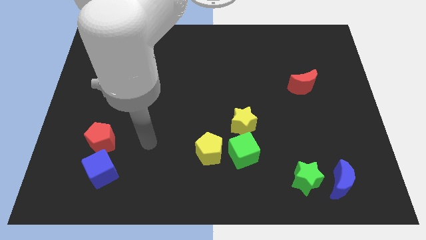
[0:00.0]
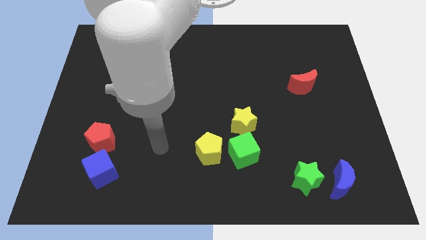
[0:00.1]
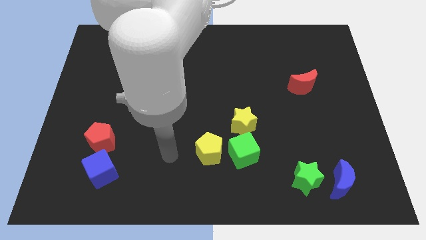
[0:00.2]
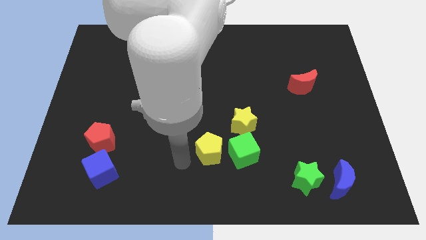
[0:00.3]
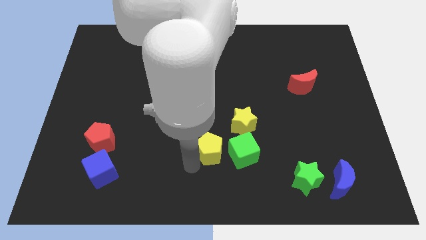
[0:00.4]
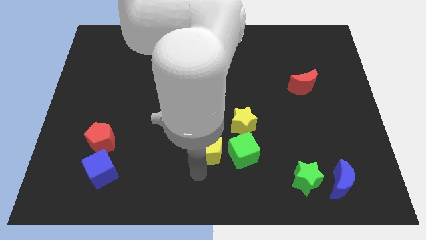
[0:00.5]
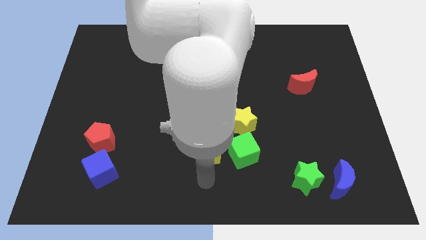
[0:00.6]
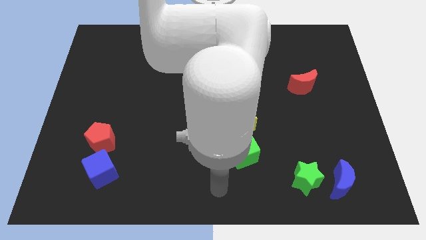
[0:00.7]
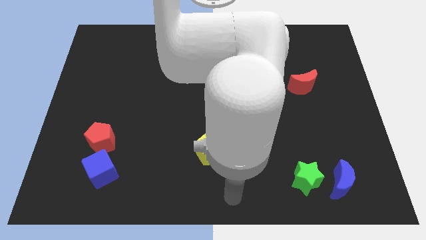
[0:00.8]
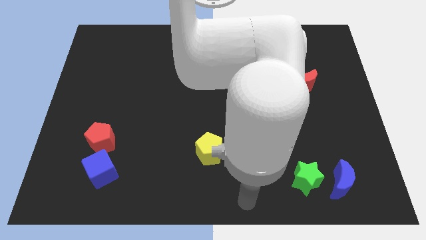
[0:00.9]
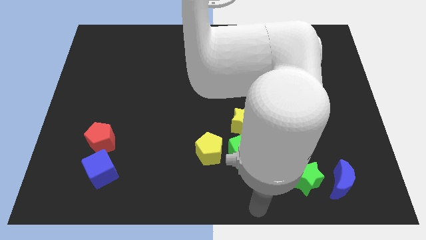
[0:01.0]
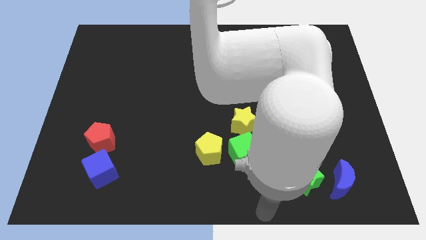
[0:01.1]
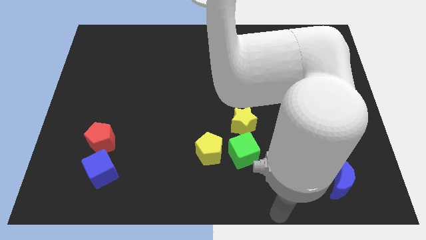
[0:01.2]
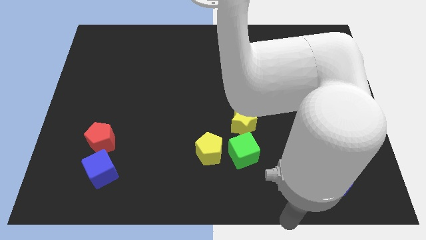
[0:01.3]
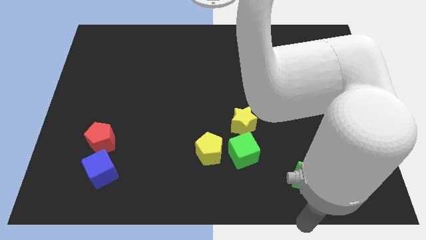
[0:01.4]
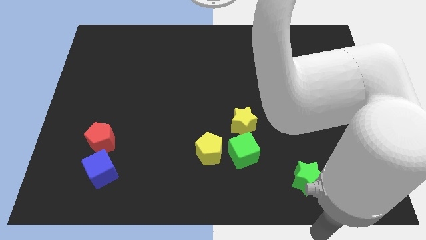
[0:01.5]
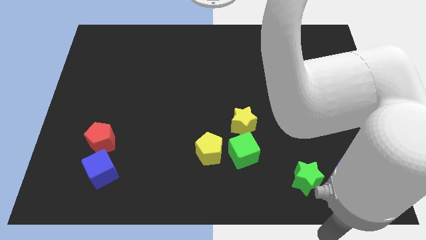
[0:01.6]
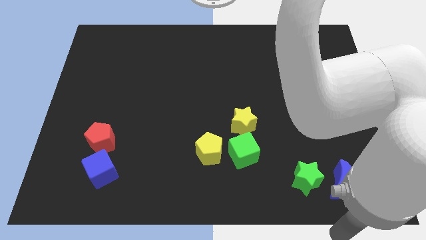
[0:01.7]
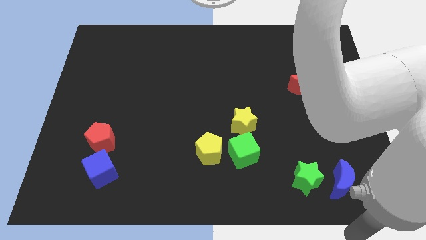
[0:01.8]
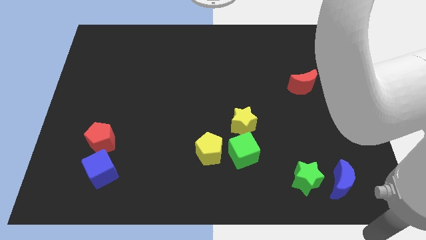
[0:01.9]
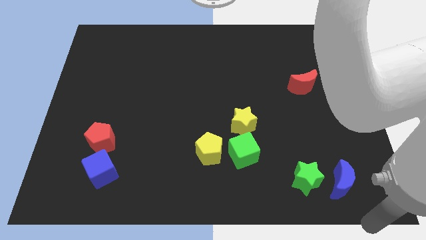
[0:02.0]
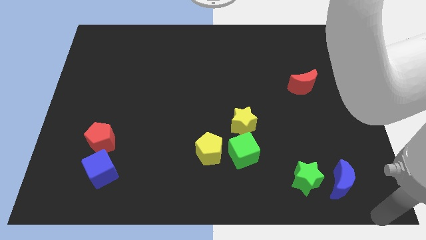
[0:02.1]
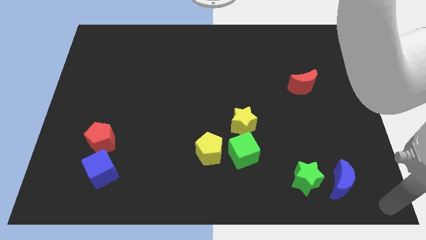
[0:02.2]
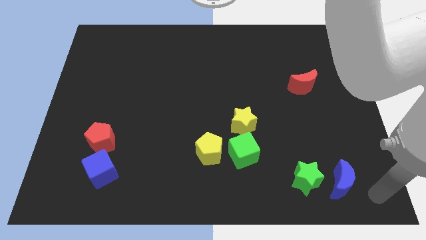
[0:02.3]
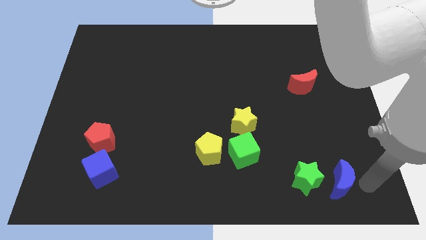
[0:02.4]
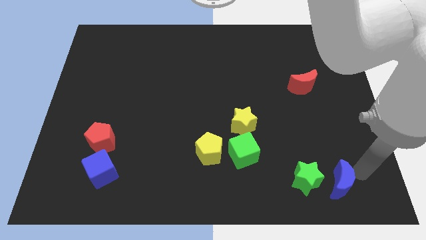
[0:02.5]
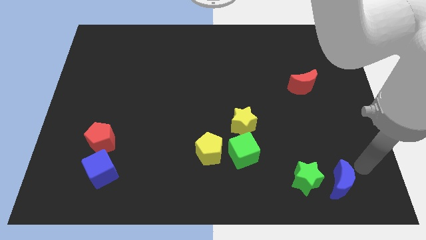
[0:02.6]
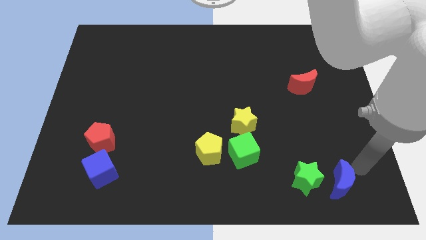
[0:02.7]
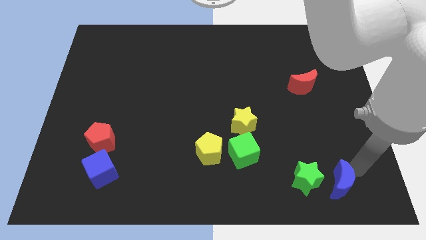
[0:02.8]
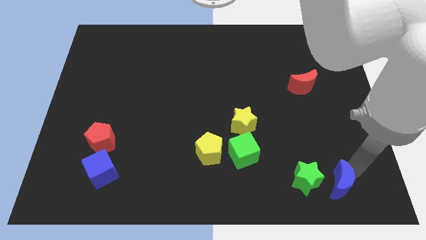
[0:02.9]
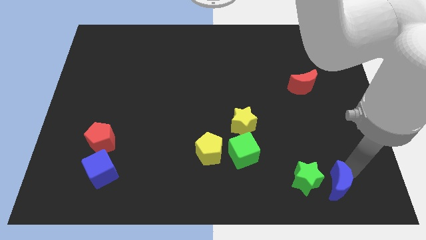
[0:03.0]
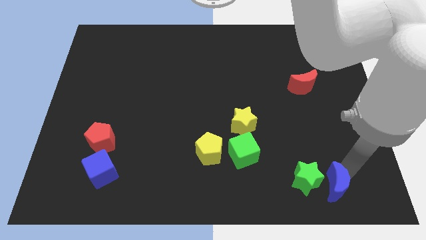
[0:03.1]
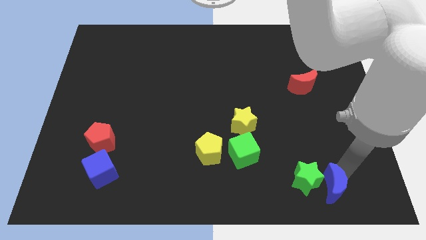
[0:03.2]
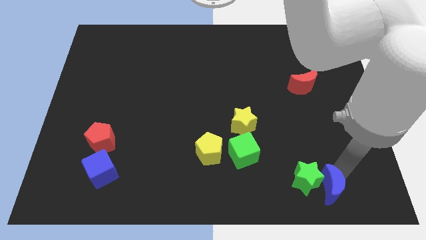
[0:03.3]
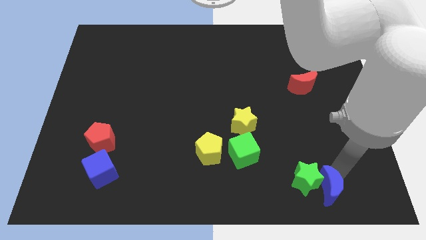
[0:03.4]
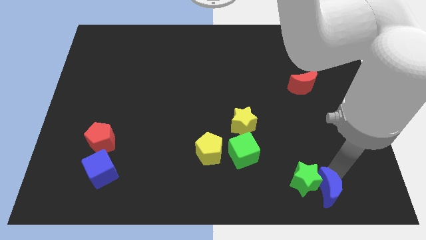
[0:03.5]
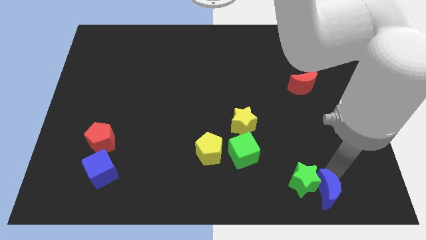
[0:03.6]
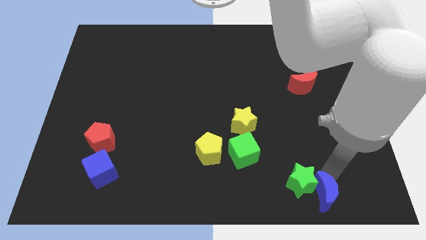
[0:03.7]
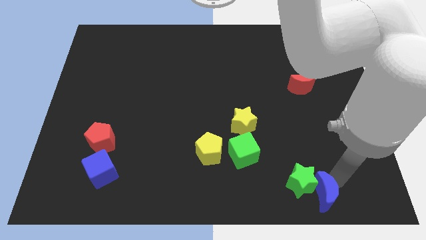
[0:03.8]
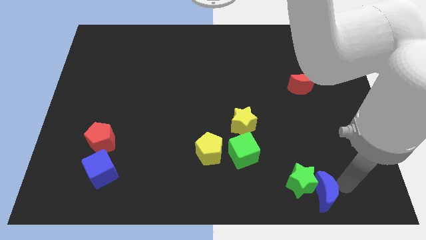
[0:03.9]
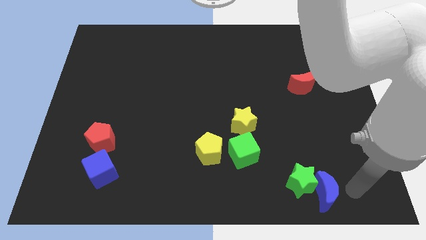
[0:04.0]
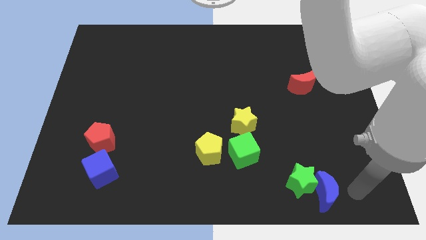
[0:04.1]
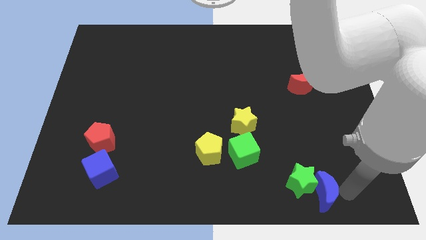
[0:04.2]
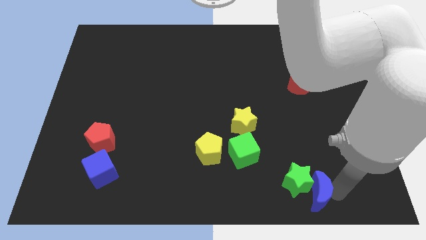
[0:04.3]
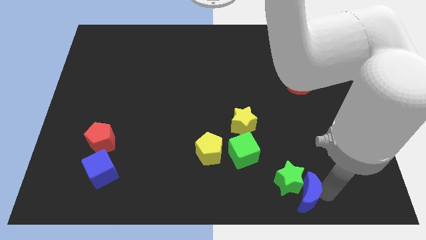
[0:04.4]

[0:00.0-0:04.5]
move the blue moon slightly to the left

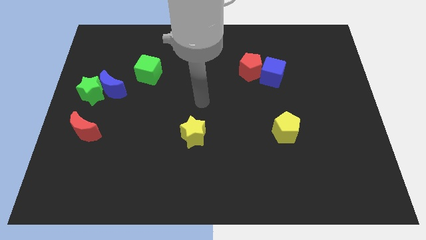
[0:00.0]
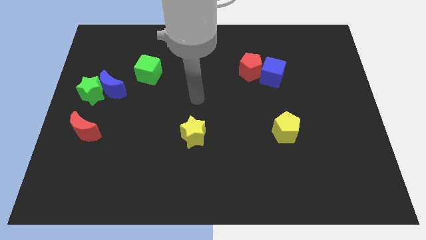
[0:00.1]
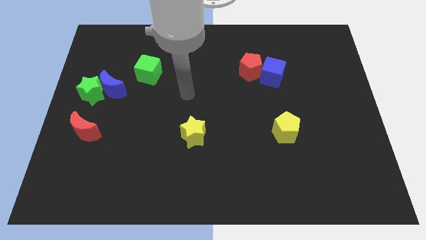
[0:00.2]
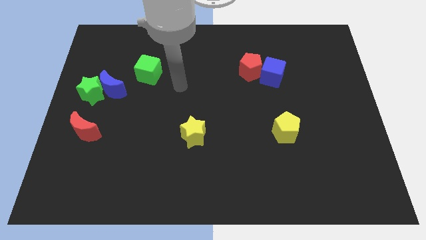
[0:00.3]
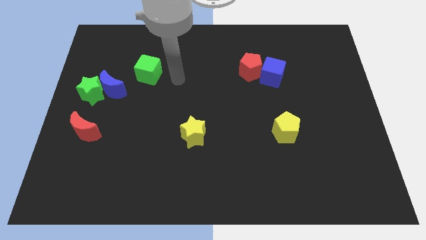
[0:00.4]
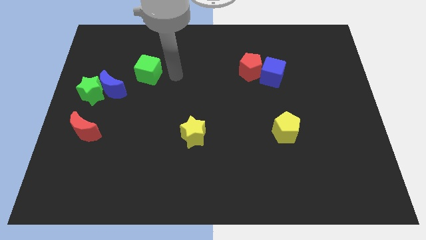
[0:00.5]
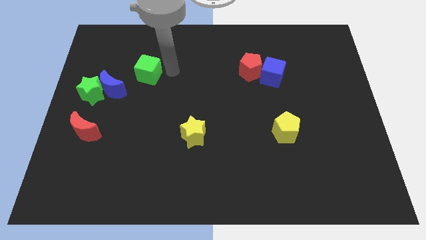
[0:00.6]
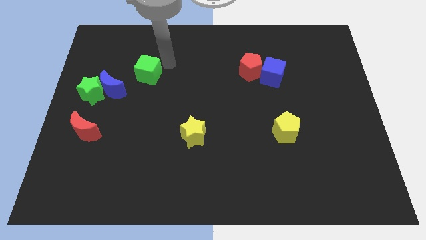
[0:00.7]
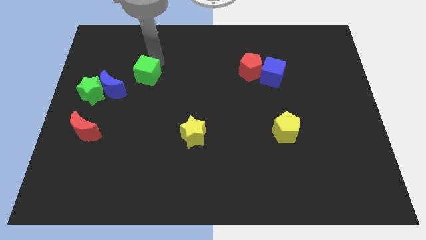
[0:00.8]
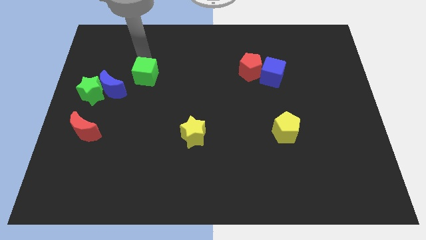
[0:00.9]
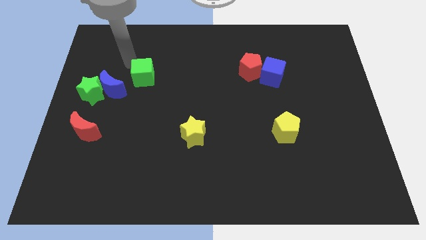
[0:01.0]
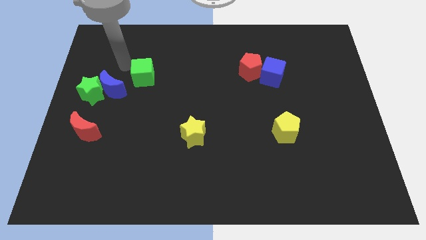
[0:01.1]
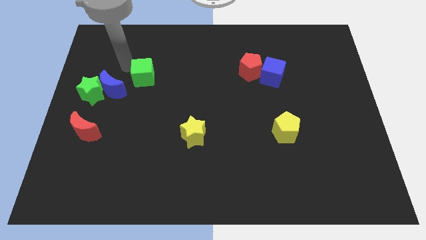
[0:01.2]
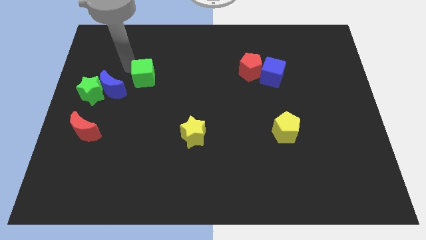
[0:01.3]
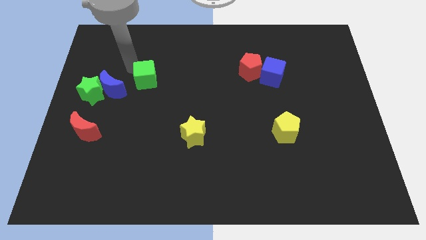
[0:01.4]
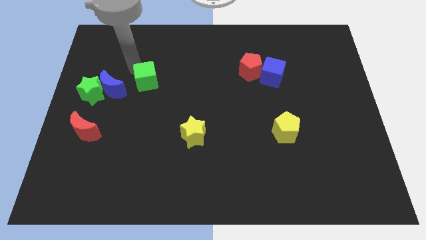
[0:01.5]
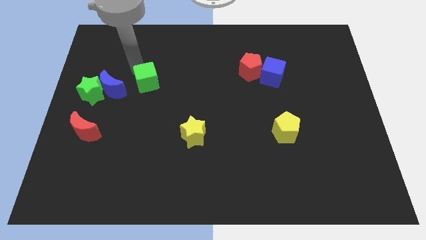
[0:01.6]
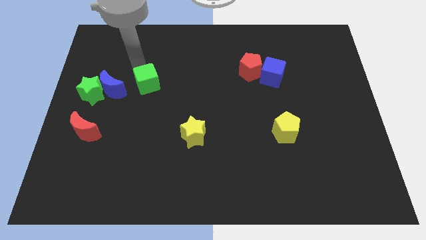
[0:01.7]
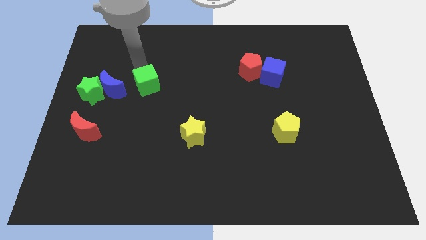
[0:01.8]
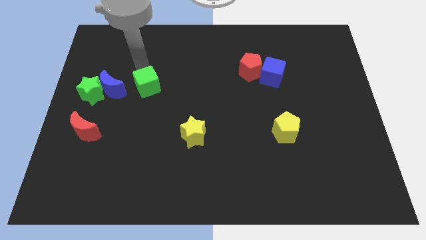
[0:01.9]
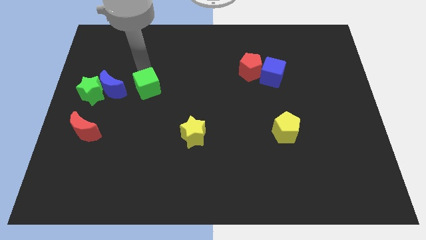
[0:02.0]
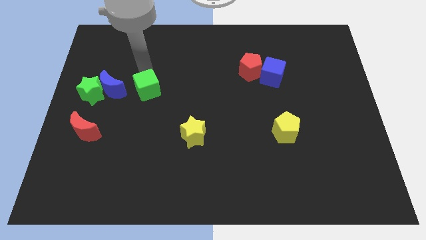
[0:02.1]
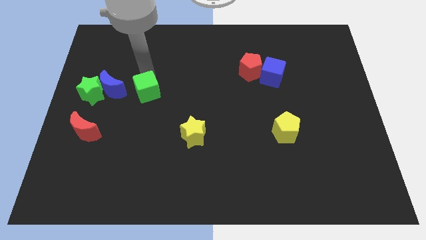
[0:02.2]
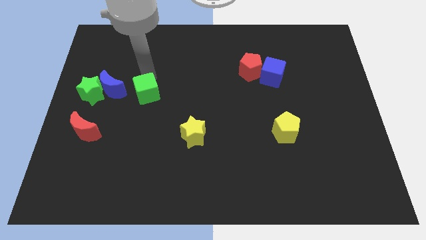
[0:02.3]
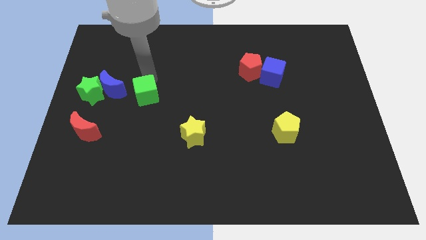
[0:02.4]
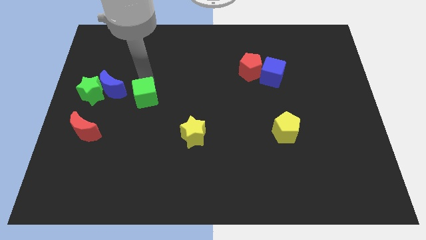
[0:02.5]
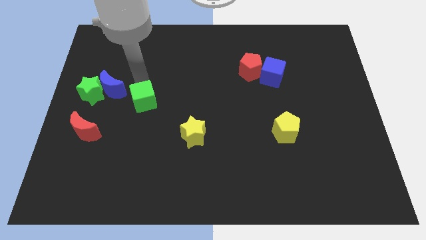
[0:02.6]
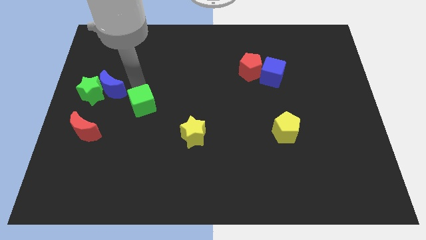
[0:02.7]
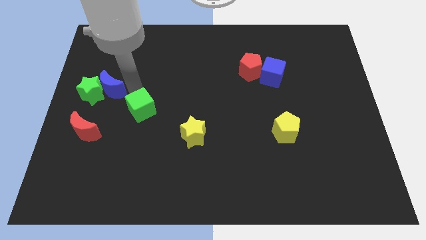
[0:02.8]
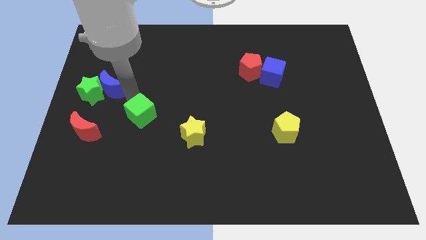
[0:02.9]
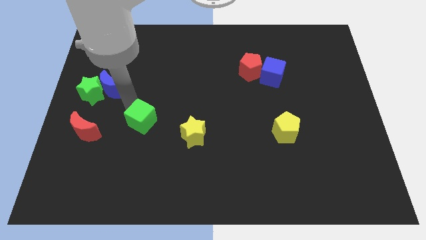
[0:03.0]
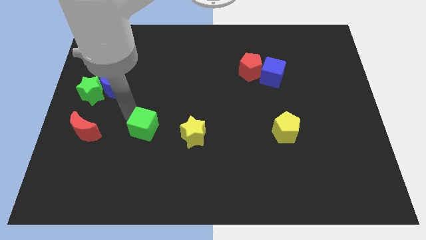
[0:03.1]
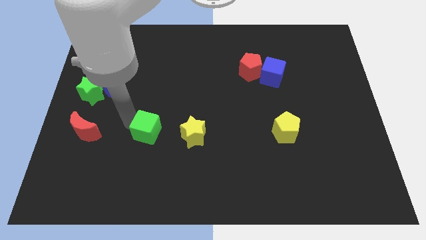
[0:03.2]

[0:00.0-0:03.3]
push the green cube downwards and then to the right a little bit
